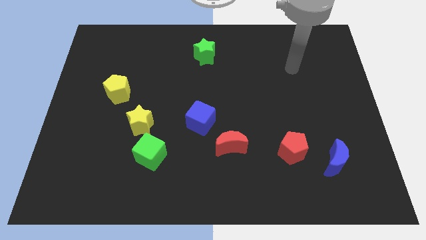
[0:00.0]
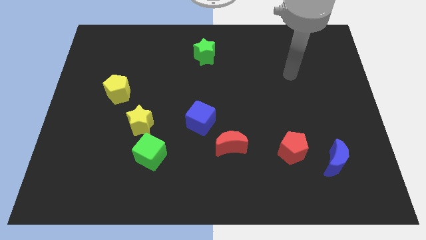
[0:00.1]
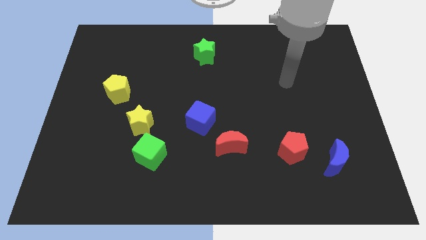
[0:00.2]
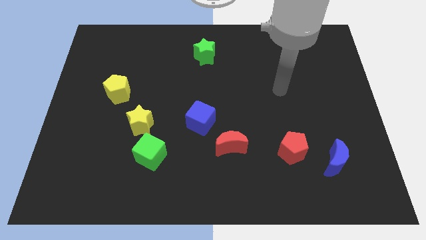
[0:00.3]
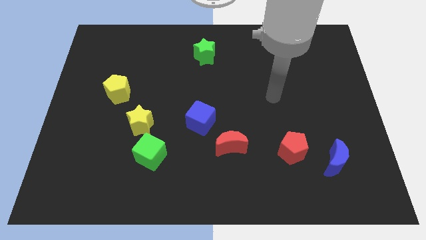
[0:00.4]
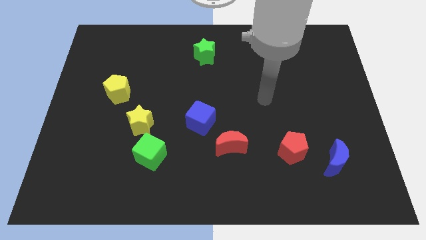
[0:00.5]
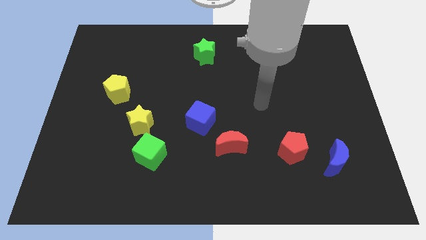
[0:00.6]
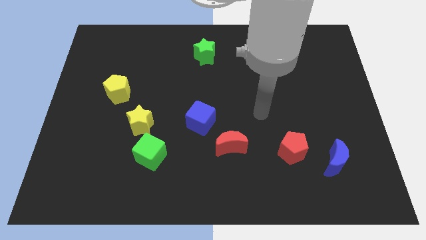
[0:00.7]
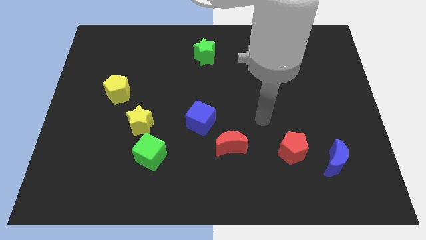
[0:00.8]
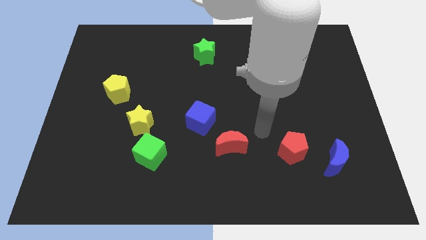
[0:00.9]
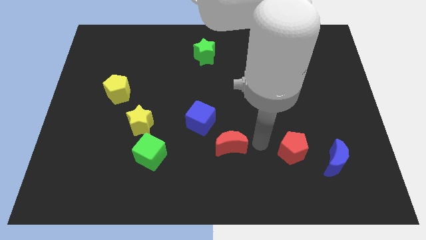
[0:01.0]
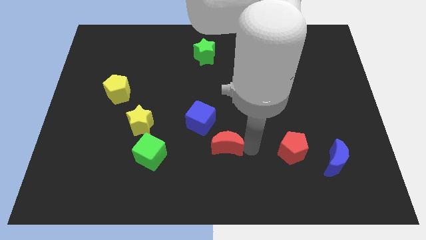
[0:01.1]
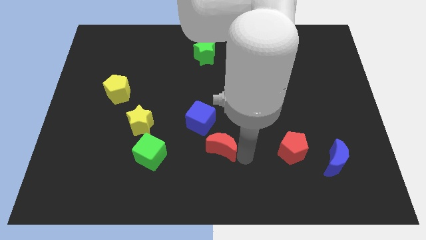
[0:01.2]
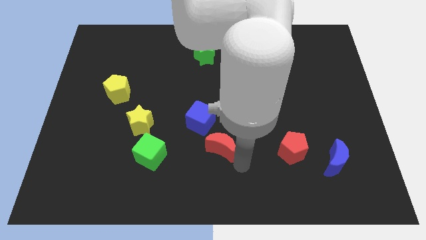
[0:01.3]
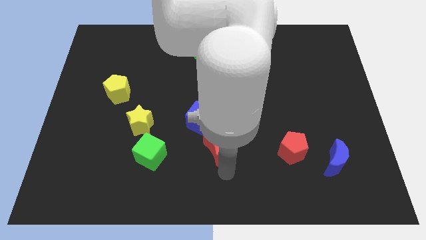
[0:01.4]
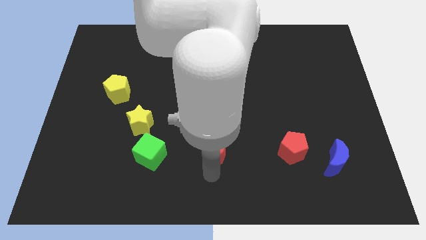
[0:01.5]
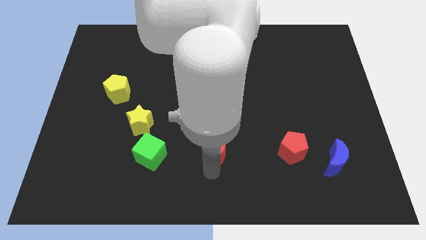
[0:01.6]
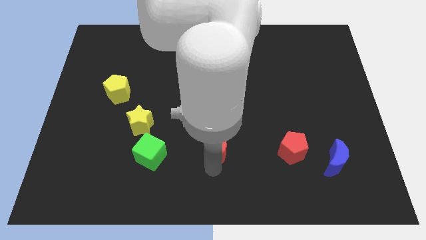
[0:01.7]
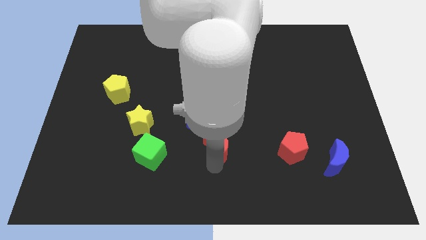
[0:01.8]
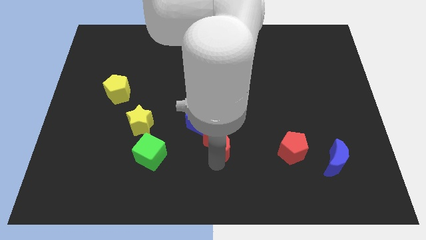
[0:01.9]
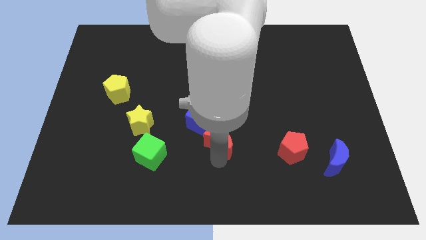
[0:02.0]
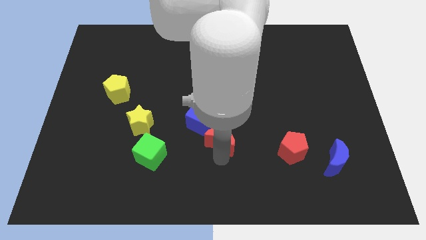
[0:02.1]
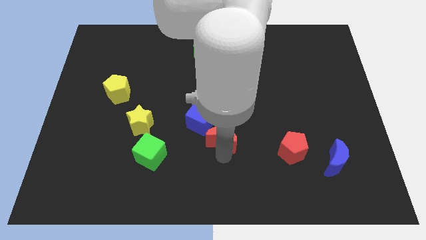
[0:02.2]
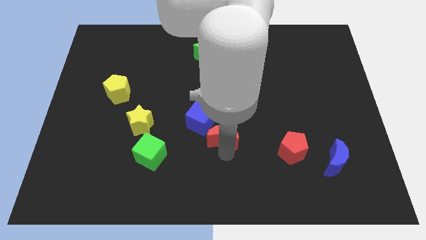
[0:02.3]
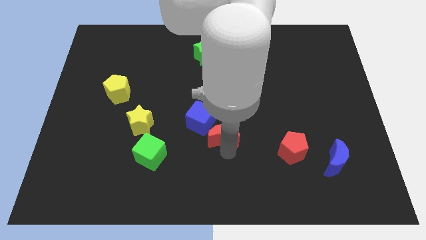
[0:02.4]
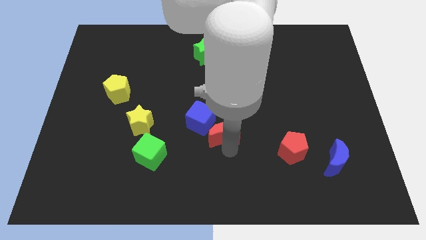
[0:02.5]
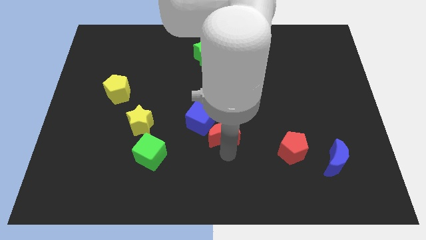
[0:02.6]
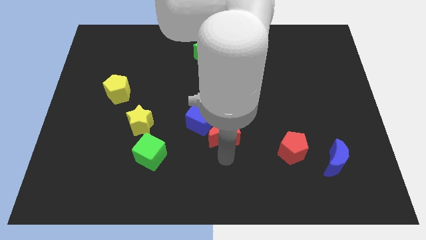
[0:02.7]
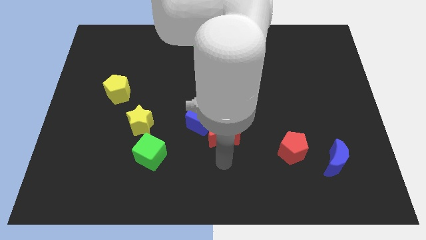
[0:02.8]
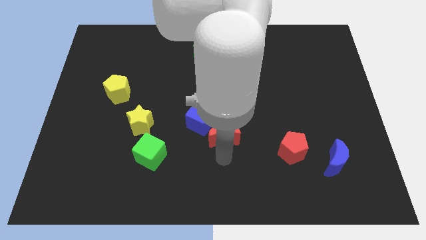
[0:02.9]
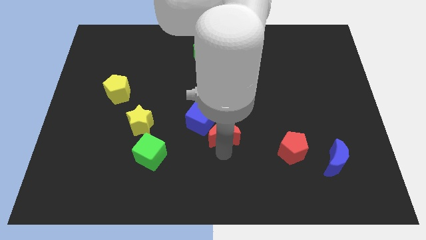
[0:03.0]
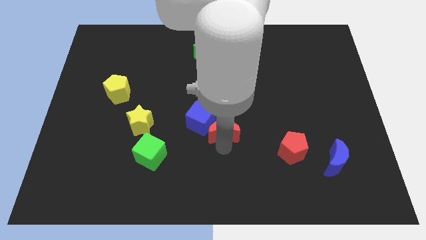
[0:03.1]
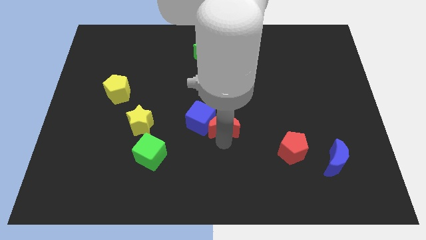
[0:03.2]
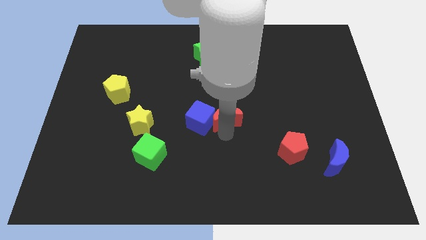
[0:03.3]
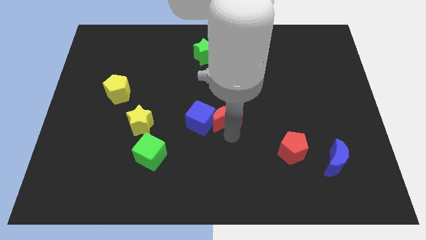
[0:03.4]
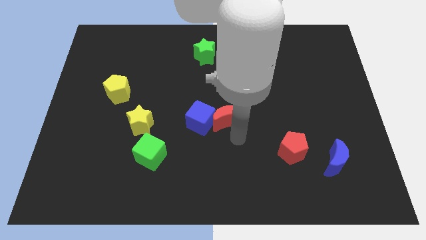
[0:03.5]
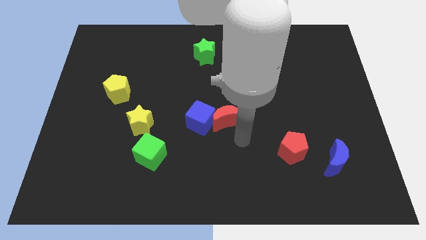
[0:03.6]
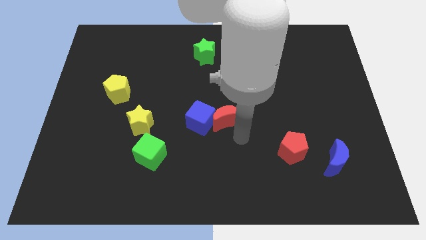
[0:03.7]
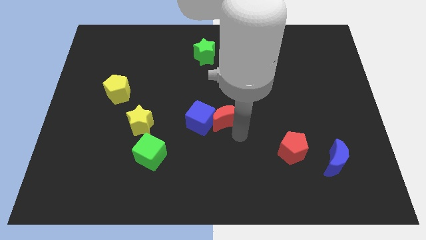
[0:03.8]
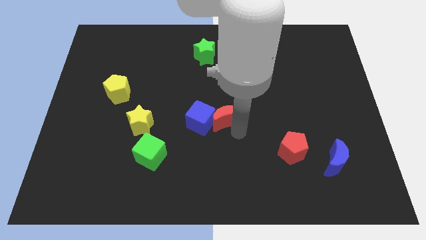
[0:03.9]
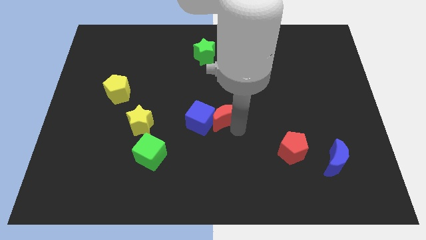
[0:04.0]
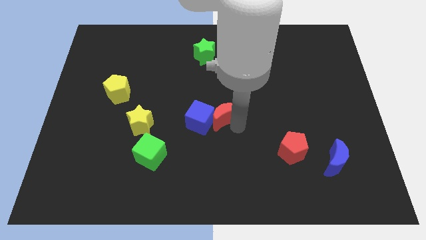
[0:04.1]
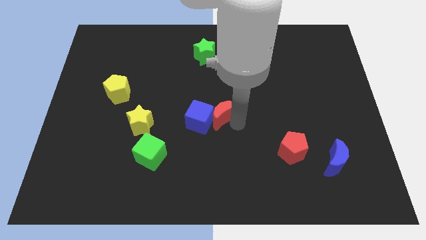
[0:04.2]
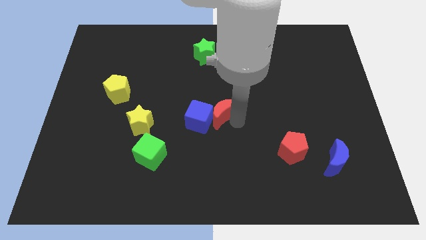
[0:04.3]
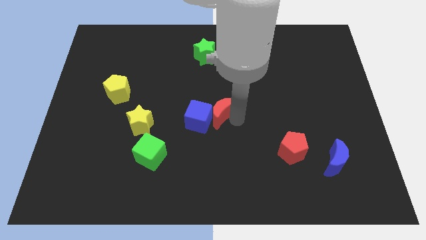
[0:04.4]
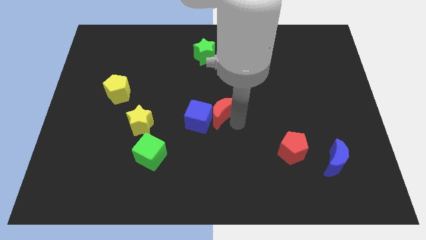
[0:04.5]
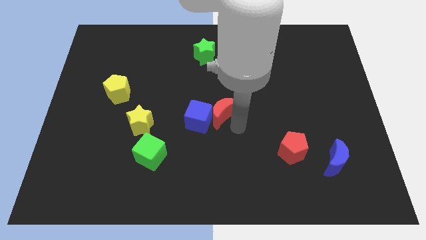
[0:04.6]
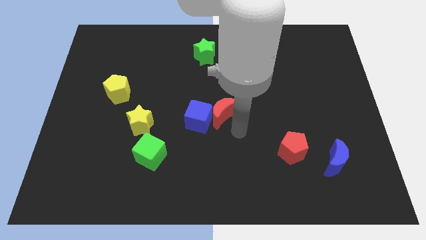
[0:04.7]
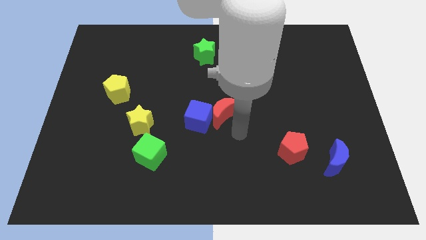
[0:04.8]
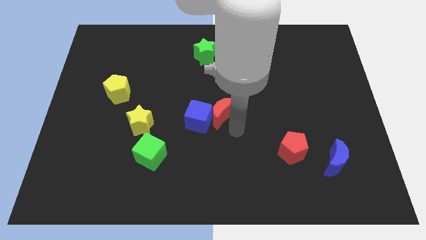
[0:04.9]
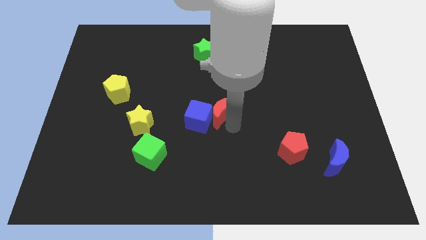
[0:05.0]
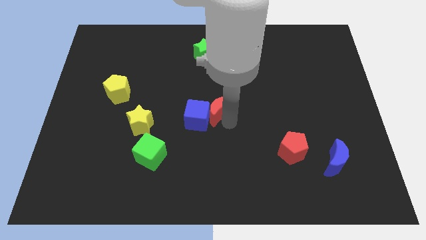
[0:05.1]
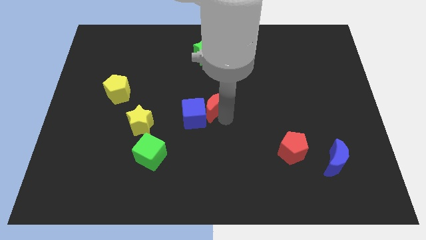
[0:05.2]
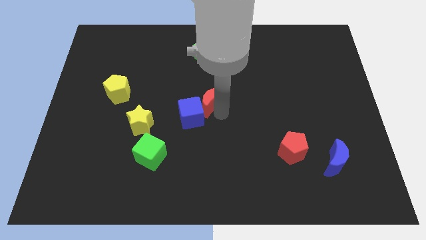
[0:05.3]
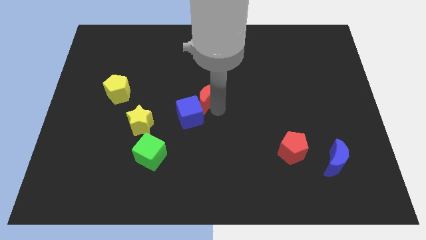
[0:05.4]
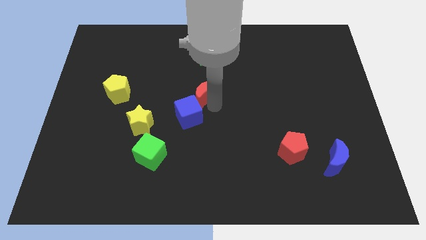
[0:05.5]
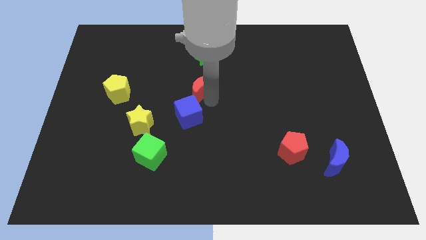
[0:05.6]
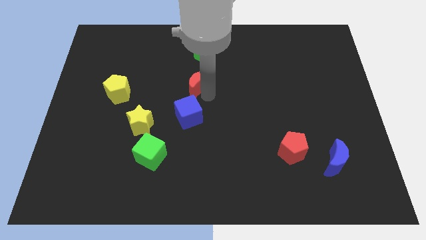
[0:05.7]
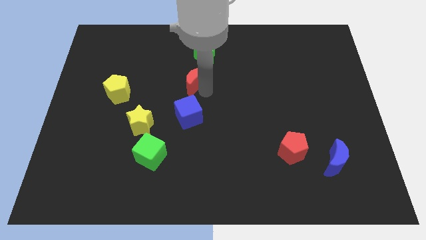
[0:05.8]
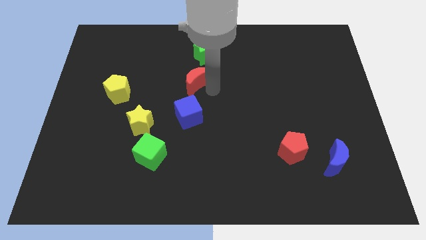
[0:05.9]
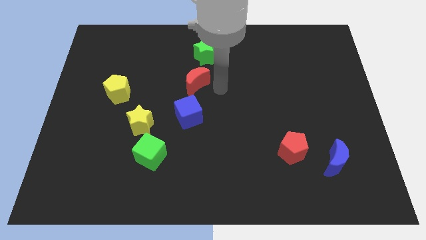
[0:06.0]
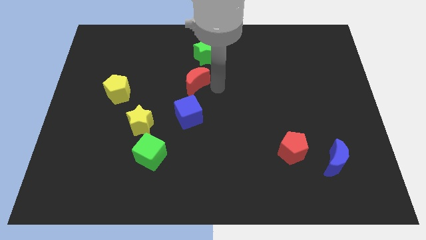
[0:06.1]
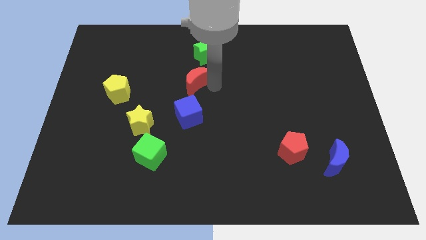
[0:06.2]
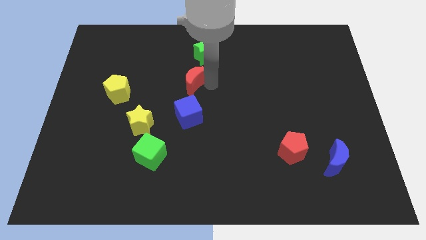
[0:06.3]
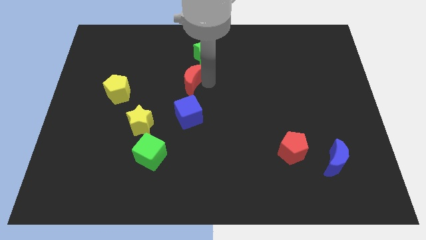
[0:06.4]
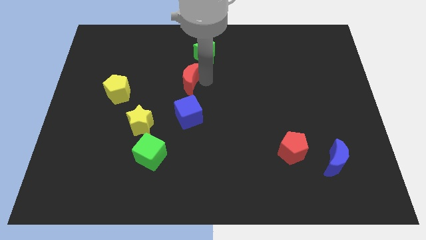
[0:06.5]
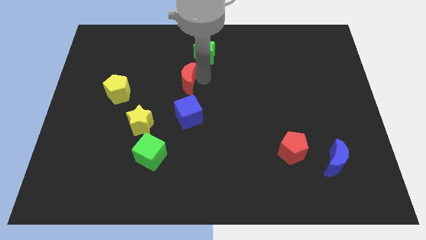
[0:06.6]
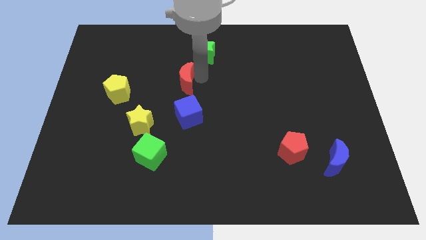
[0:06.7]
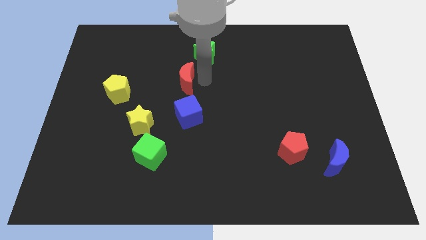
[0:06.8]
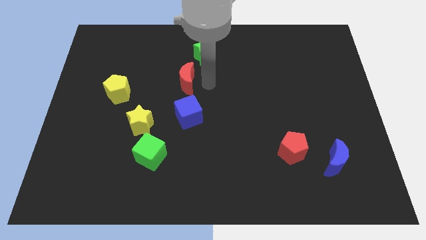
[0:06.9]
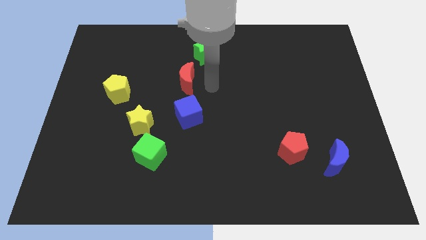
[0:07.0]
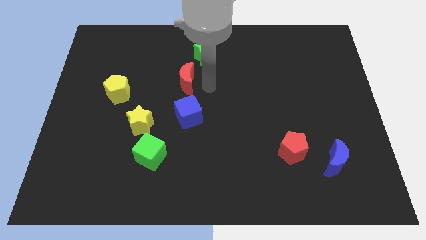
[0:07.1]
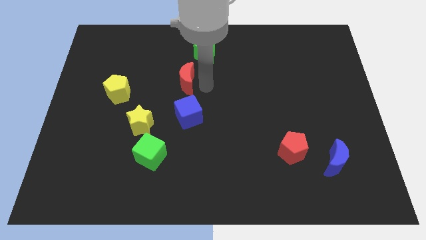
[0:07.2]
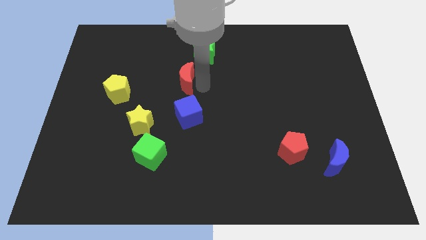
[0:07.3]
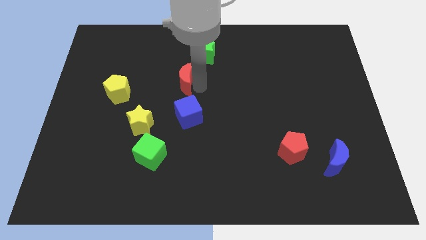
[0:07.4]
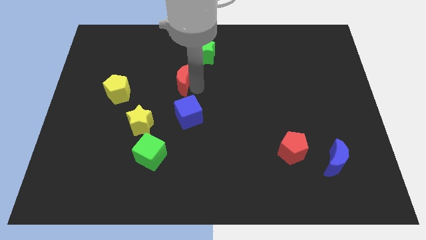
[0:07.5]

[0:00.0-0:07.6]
push the red moon up and to the left

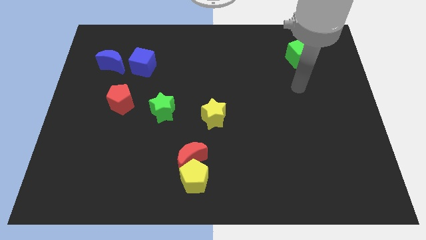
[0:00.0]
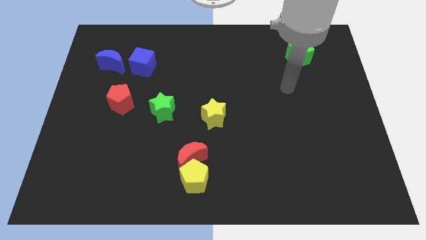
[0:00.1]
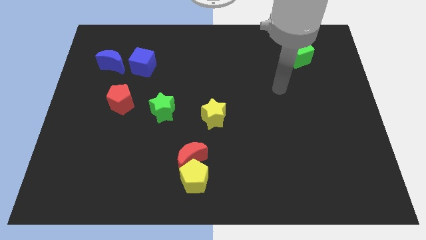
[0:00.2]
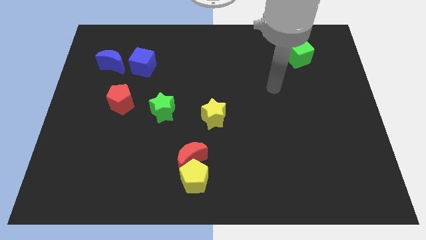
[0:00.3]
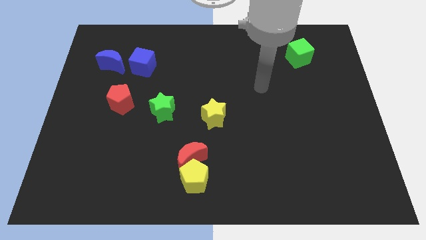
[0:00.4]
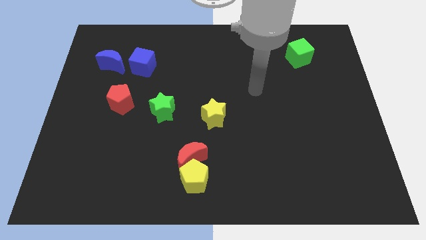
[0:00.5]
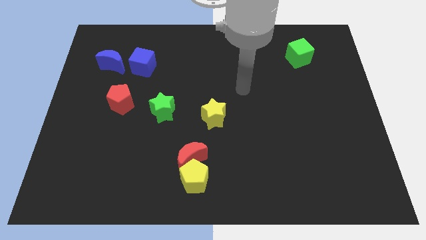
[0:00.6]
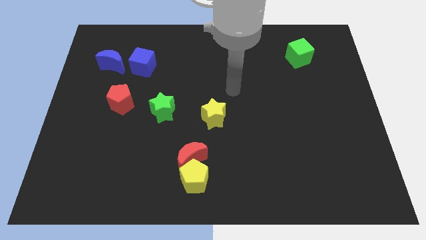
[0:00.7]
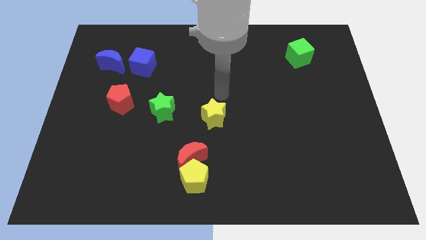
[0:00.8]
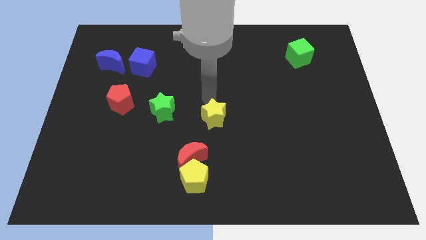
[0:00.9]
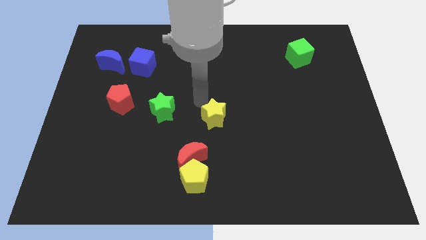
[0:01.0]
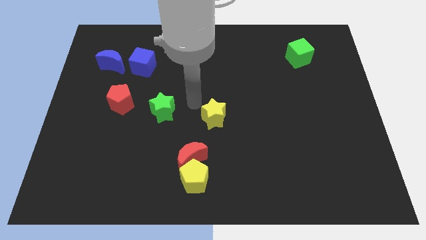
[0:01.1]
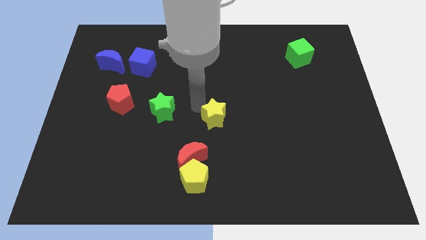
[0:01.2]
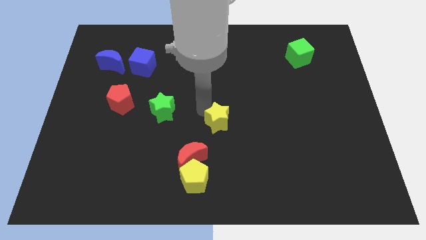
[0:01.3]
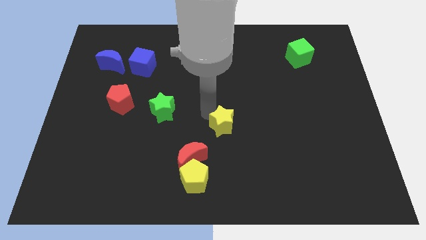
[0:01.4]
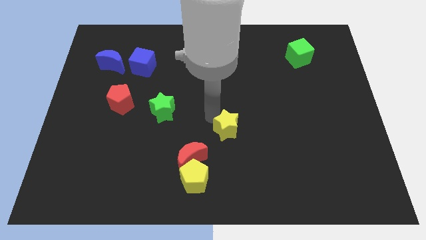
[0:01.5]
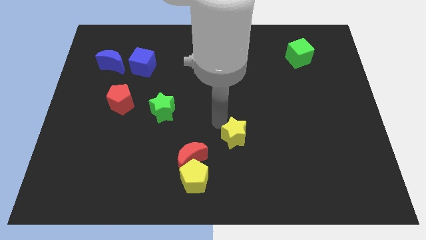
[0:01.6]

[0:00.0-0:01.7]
slightly slide the yellow star down and right
